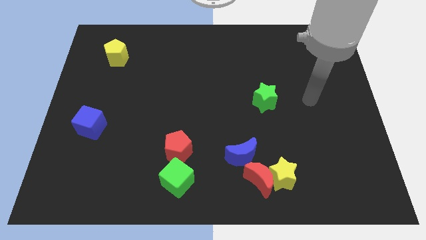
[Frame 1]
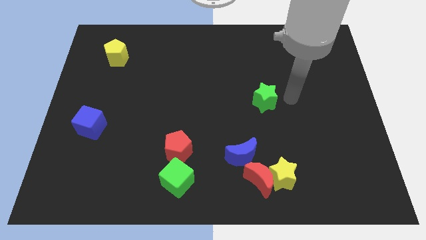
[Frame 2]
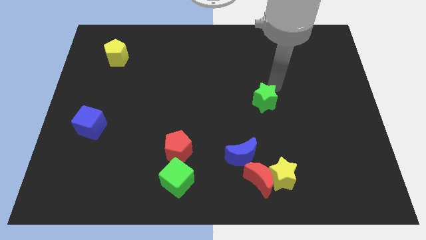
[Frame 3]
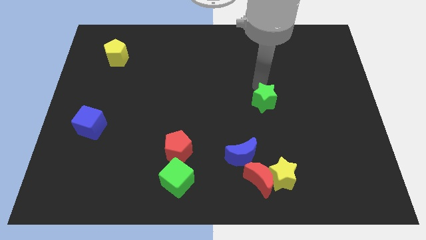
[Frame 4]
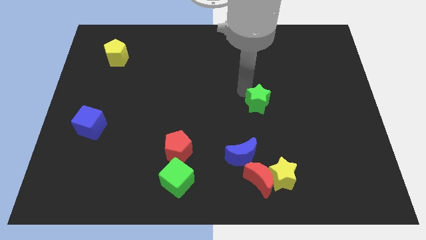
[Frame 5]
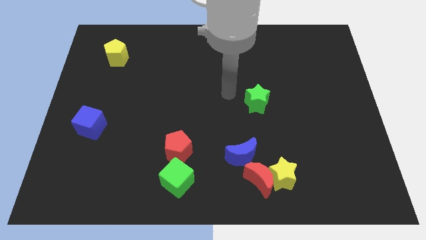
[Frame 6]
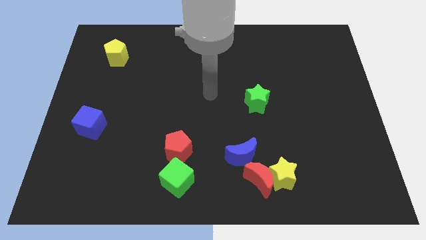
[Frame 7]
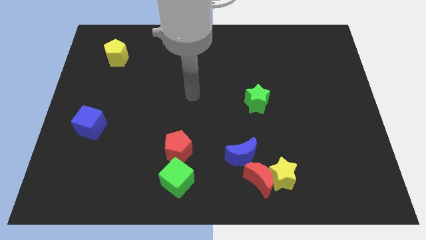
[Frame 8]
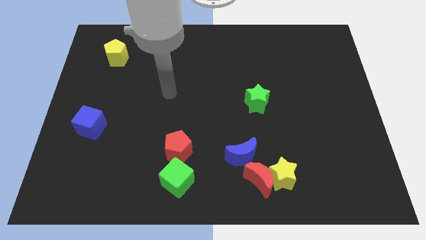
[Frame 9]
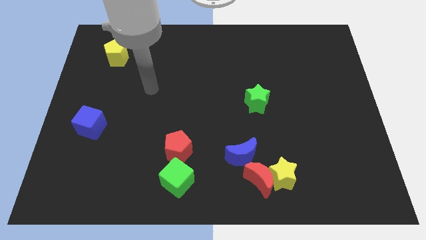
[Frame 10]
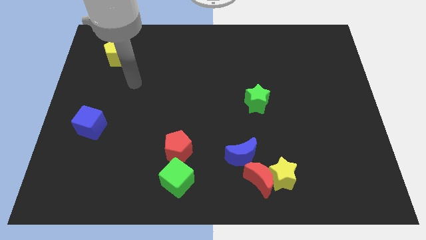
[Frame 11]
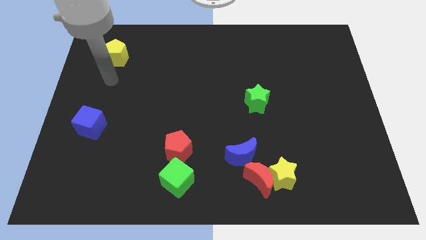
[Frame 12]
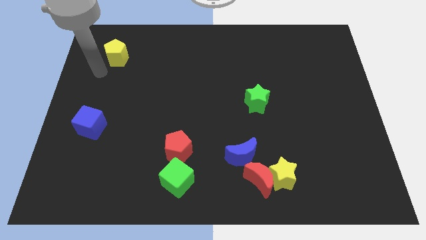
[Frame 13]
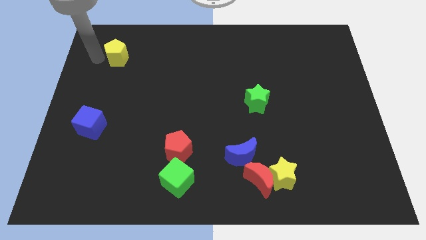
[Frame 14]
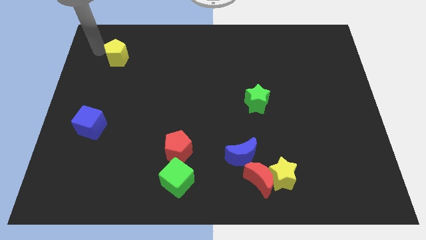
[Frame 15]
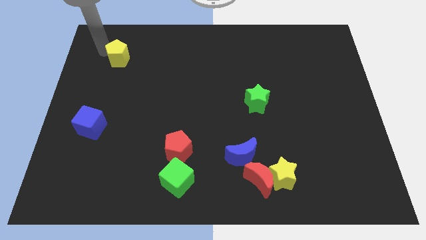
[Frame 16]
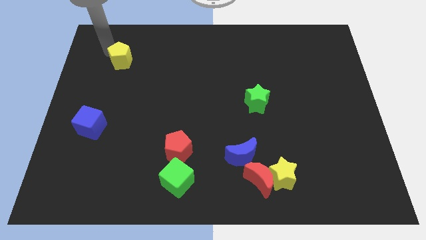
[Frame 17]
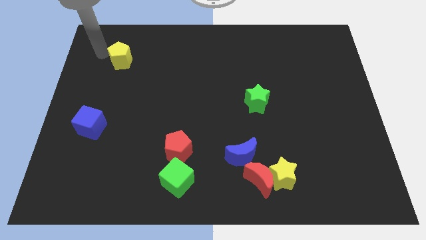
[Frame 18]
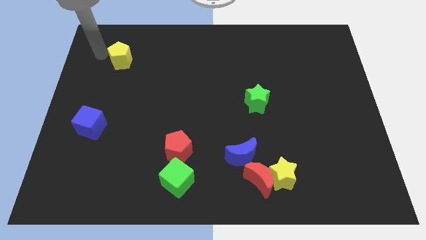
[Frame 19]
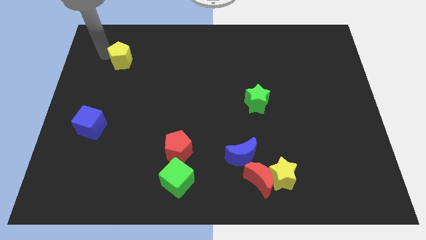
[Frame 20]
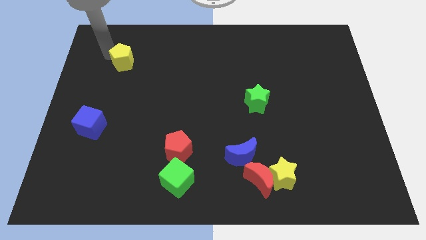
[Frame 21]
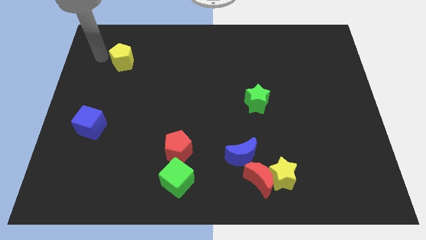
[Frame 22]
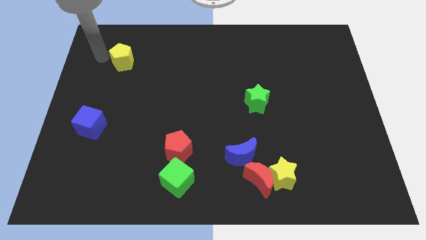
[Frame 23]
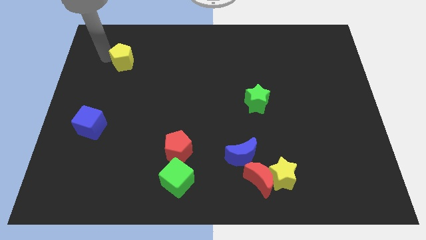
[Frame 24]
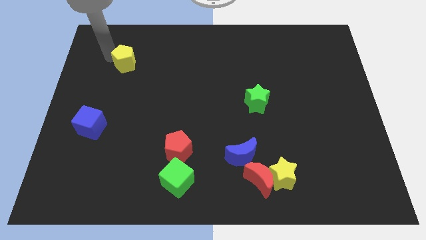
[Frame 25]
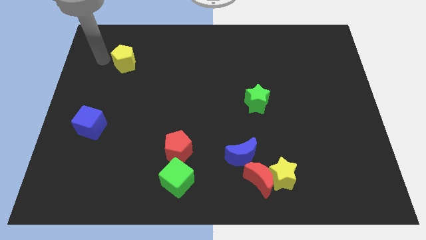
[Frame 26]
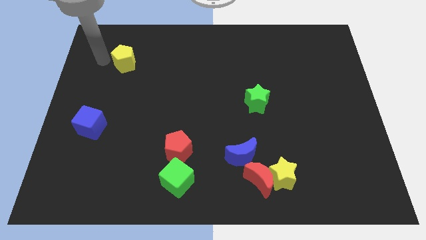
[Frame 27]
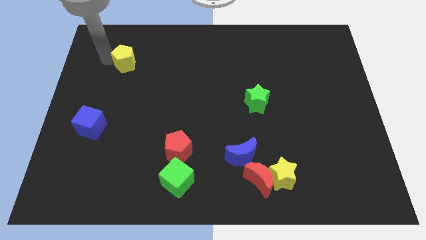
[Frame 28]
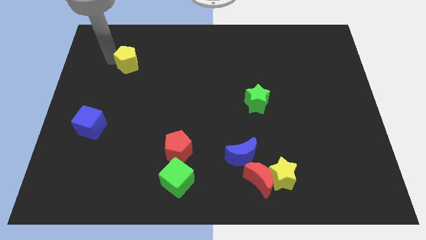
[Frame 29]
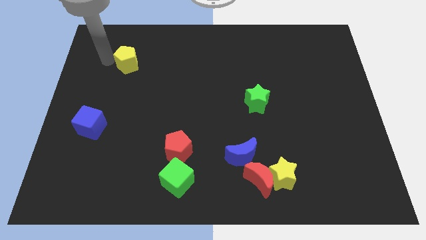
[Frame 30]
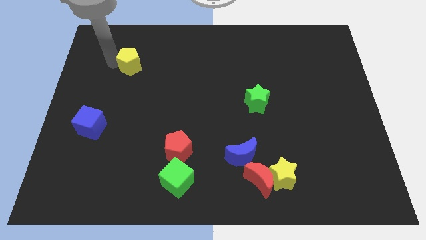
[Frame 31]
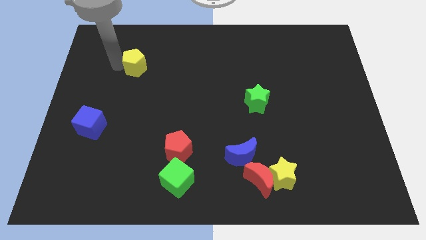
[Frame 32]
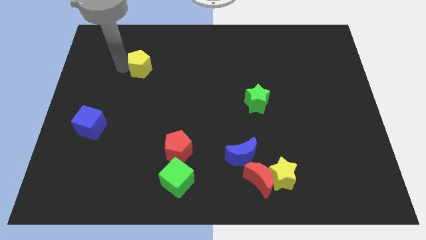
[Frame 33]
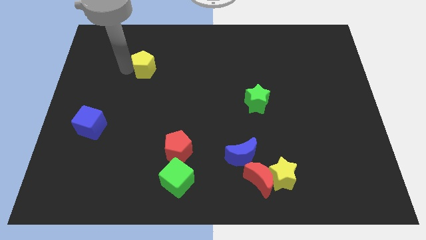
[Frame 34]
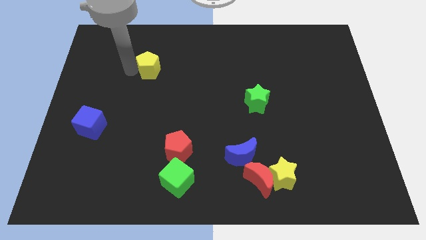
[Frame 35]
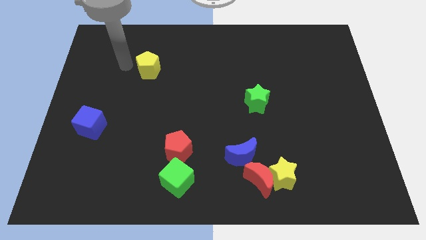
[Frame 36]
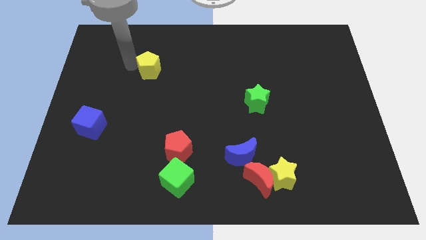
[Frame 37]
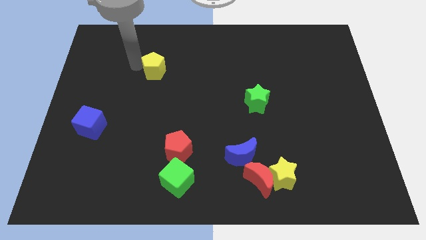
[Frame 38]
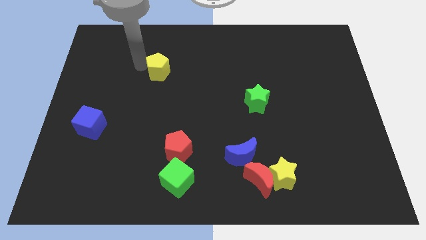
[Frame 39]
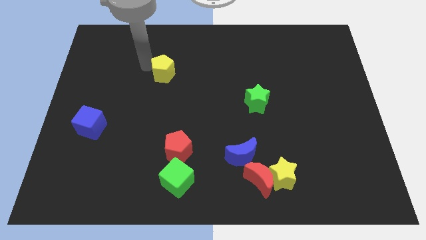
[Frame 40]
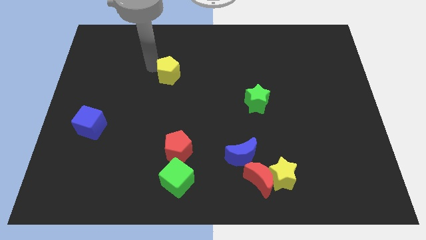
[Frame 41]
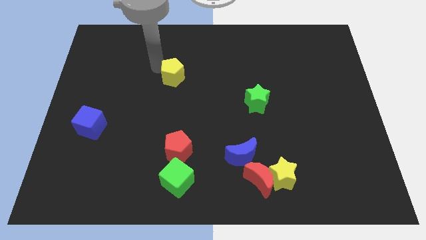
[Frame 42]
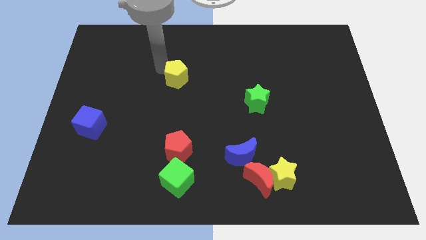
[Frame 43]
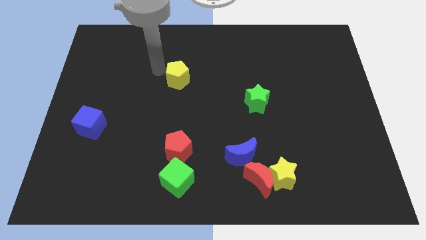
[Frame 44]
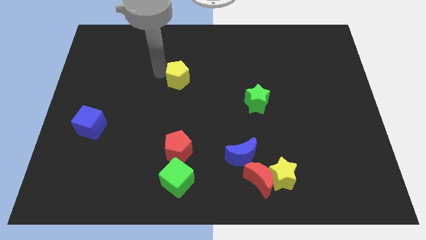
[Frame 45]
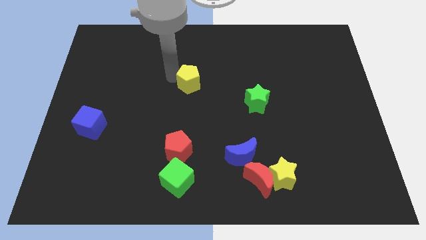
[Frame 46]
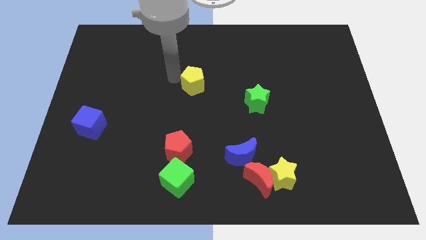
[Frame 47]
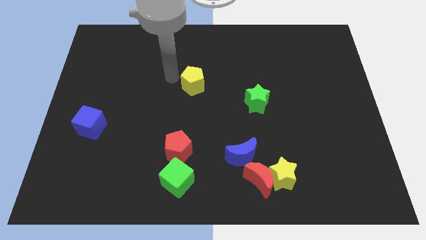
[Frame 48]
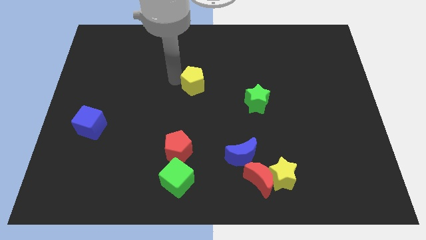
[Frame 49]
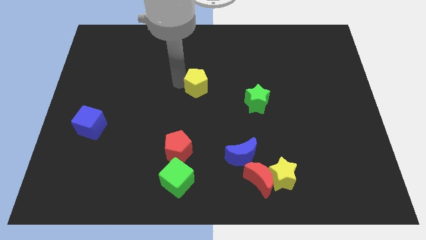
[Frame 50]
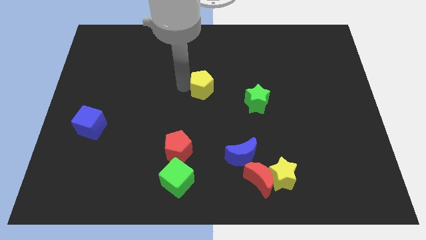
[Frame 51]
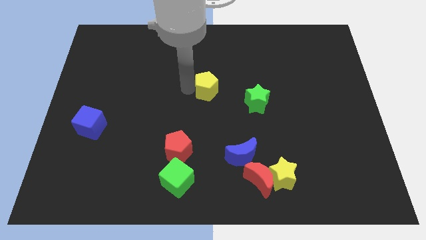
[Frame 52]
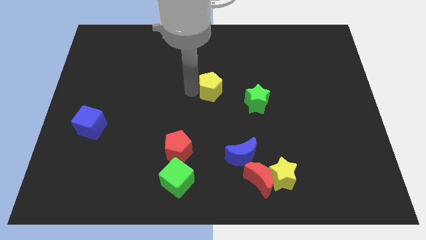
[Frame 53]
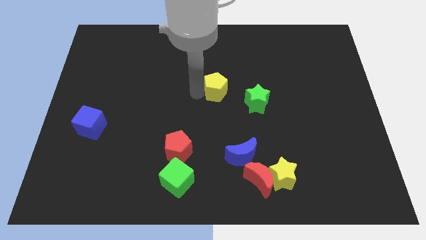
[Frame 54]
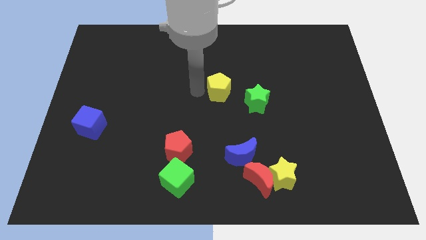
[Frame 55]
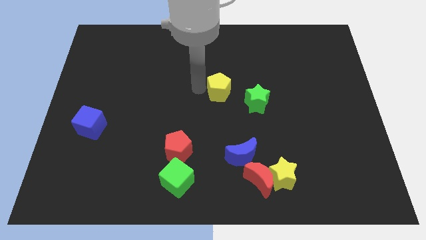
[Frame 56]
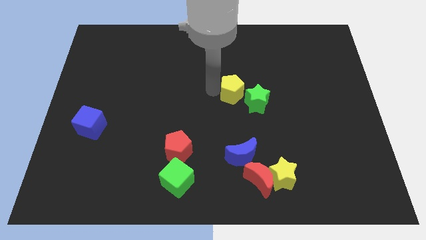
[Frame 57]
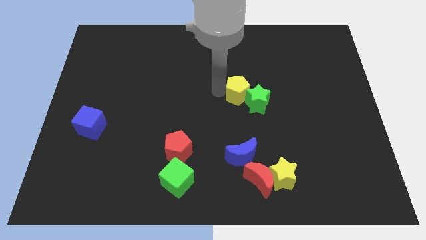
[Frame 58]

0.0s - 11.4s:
put the yellow pentagon close to the green star
